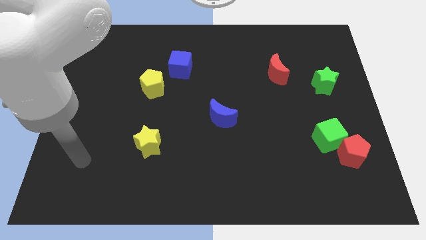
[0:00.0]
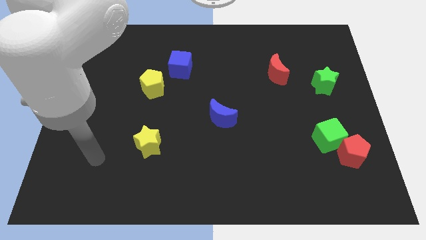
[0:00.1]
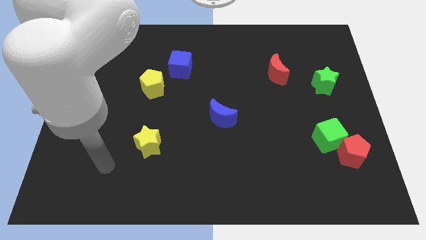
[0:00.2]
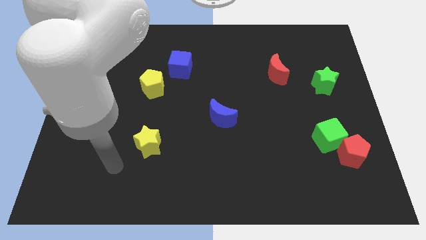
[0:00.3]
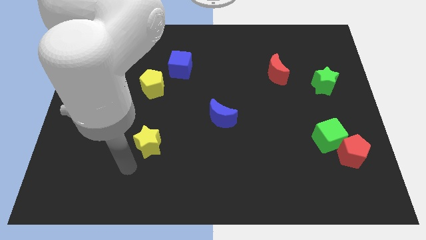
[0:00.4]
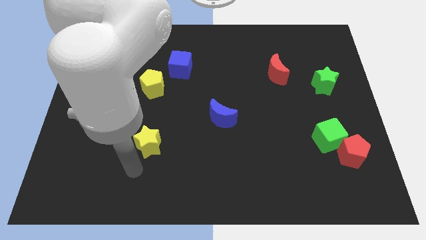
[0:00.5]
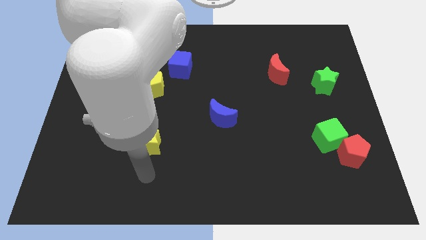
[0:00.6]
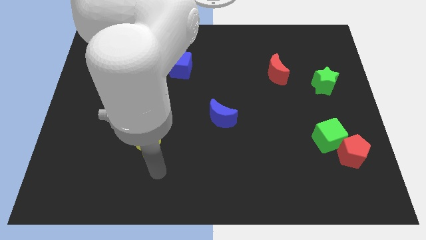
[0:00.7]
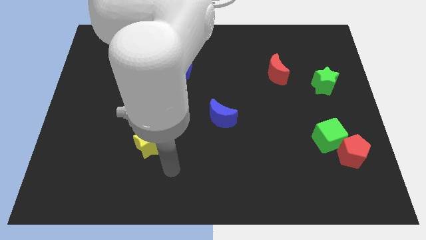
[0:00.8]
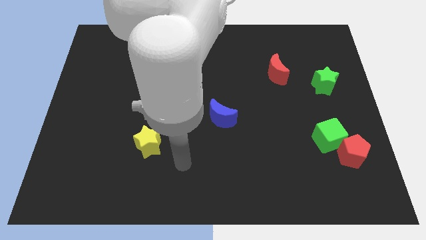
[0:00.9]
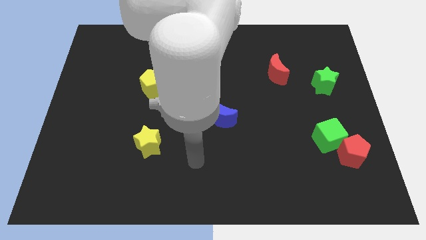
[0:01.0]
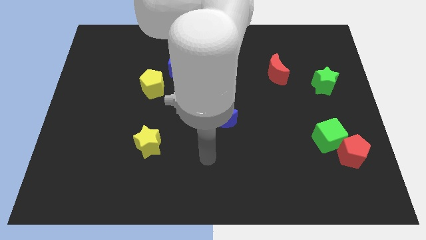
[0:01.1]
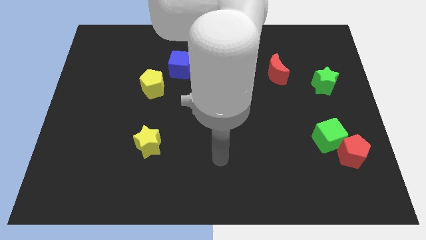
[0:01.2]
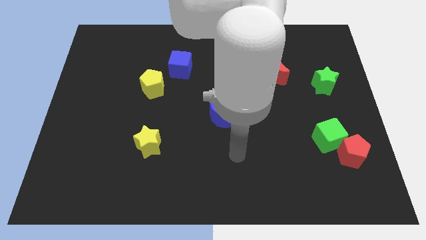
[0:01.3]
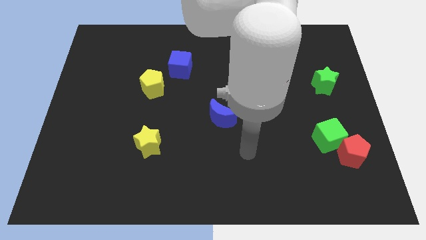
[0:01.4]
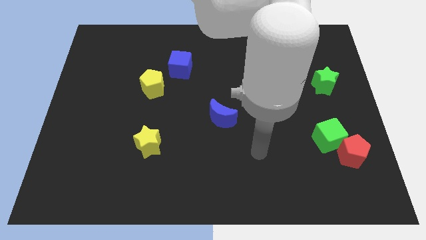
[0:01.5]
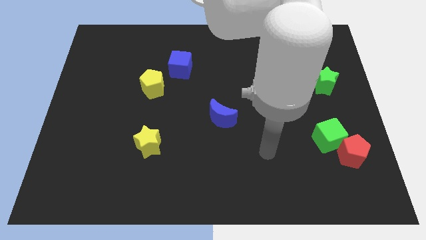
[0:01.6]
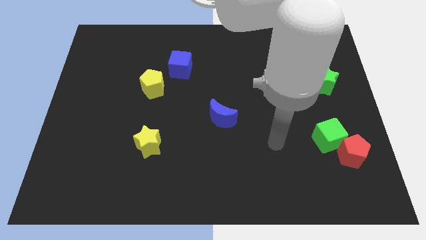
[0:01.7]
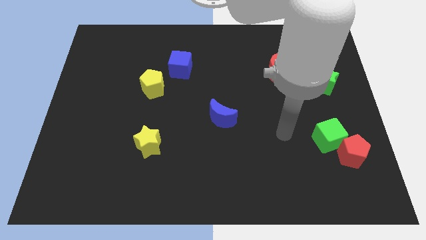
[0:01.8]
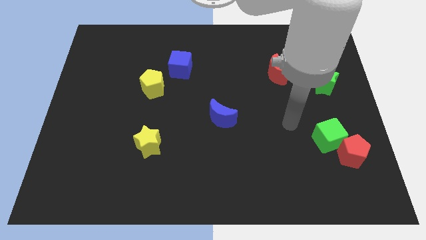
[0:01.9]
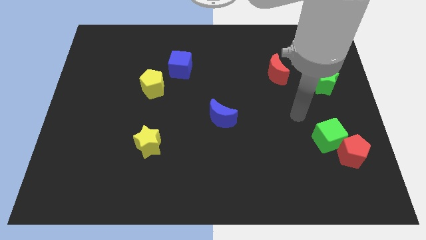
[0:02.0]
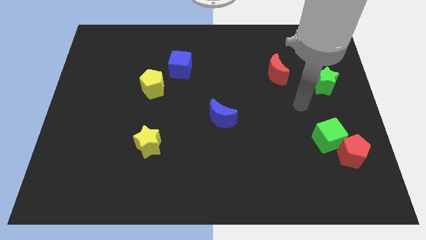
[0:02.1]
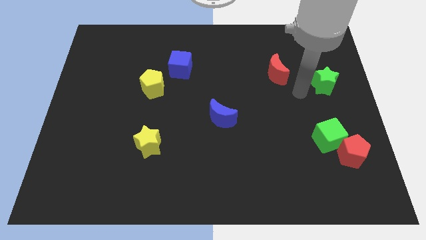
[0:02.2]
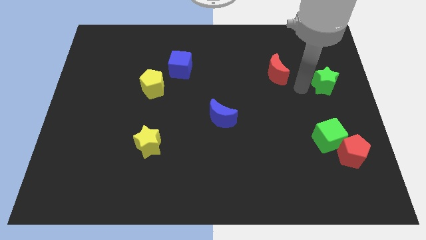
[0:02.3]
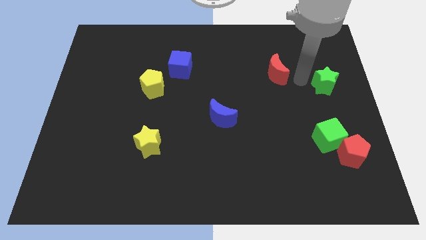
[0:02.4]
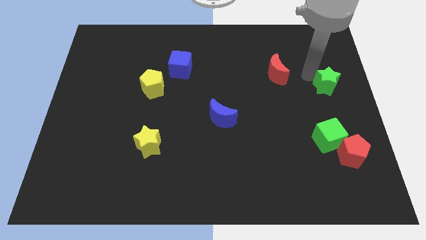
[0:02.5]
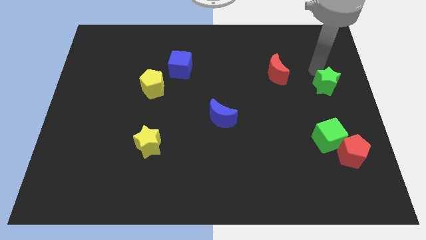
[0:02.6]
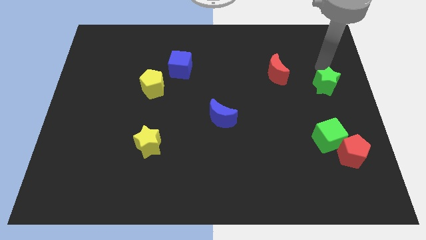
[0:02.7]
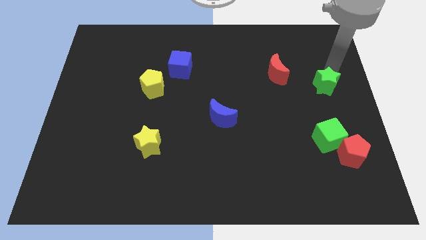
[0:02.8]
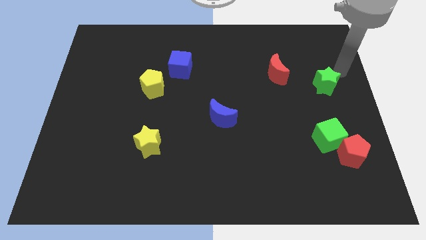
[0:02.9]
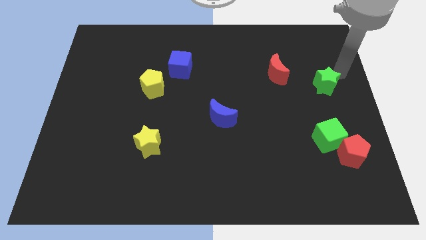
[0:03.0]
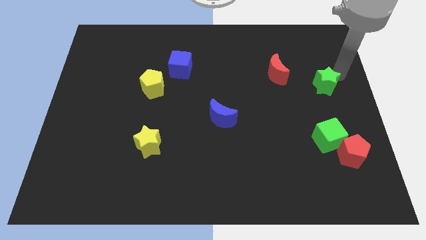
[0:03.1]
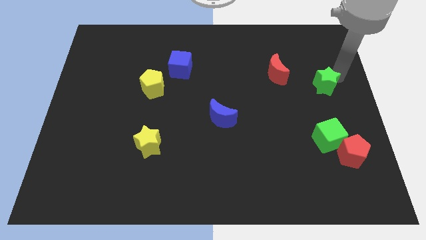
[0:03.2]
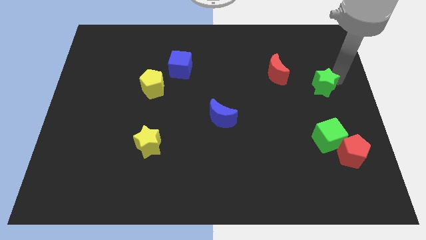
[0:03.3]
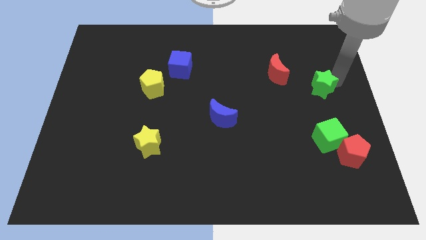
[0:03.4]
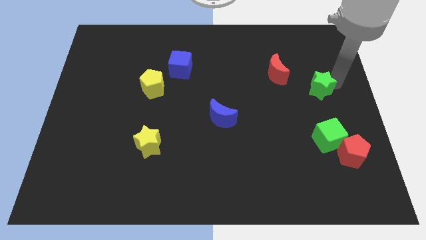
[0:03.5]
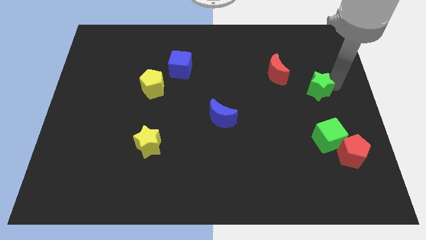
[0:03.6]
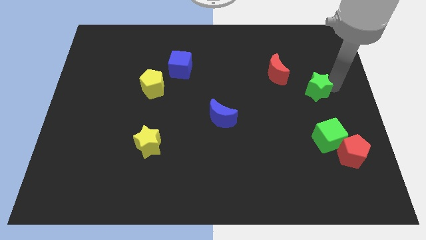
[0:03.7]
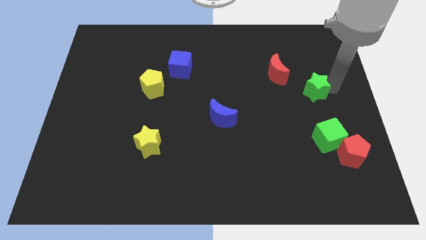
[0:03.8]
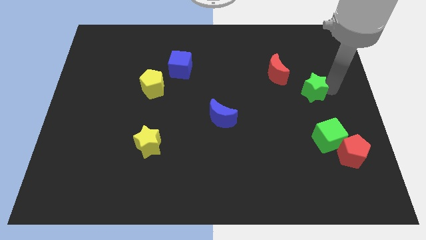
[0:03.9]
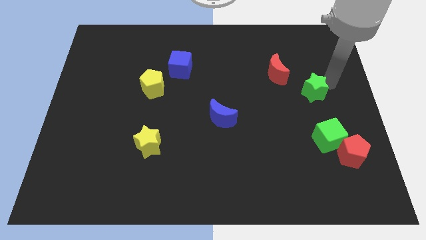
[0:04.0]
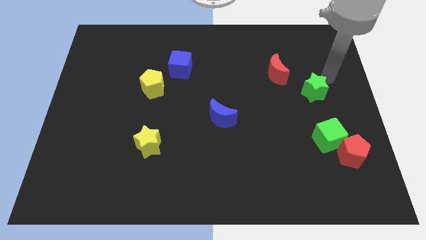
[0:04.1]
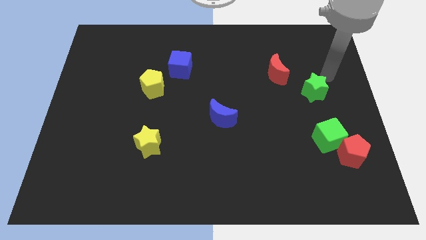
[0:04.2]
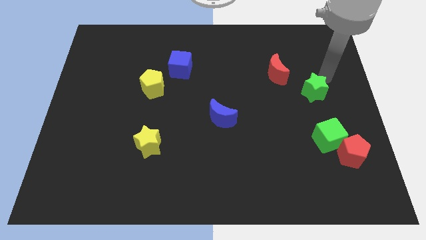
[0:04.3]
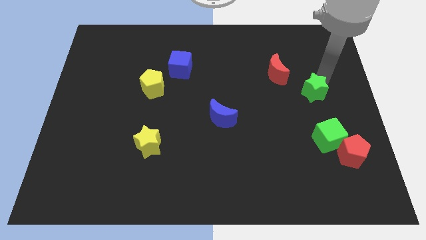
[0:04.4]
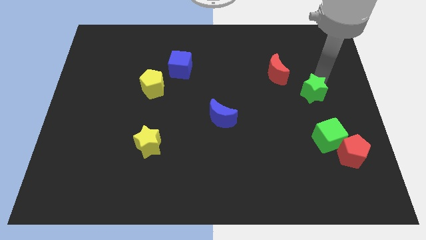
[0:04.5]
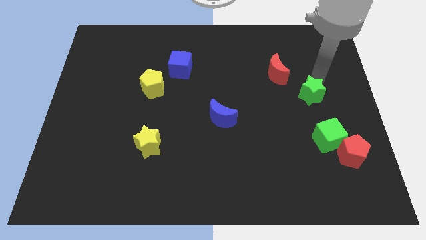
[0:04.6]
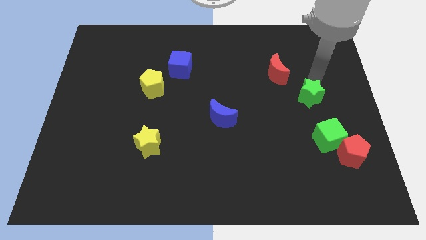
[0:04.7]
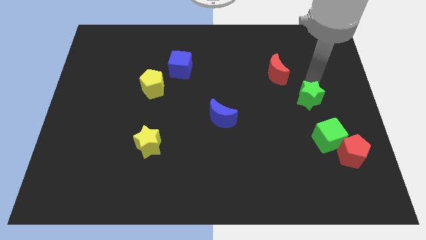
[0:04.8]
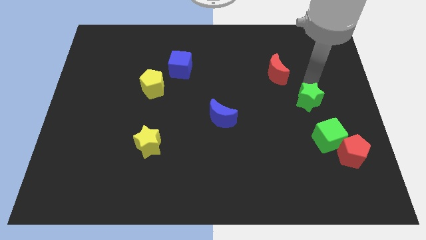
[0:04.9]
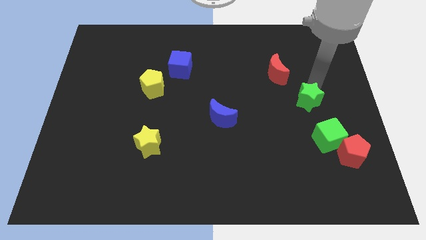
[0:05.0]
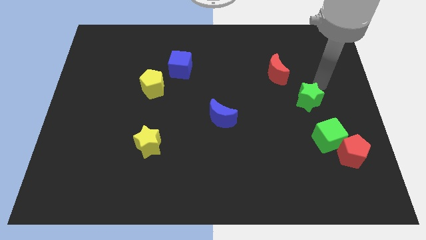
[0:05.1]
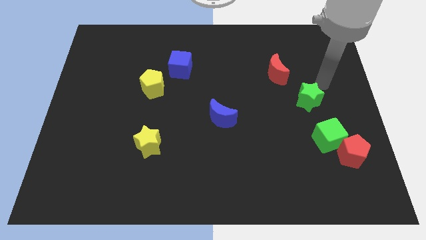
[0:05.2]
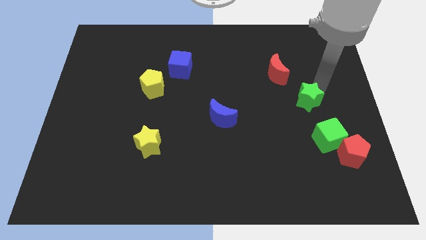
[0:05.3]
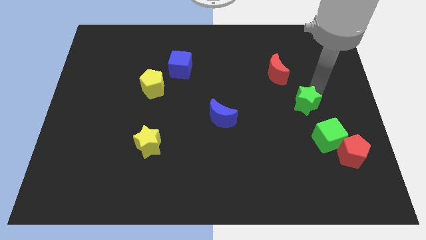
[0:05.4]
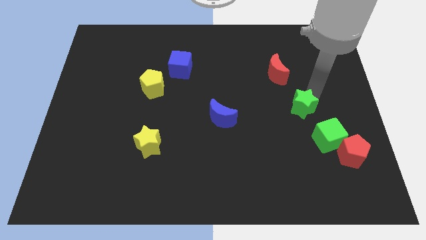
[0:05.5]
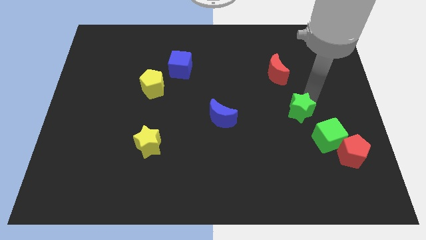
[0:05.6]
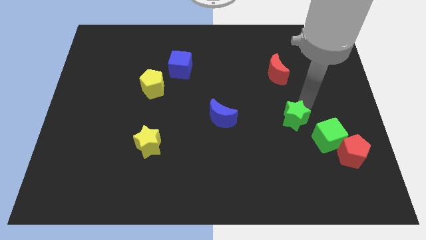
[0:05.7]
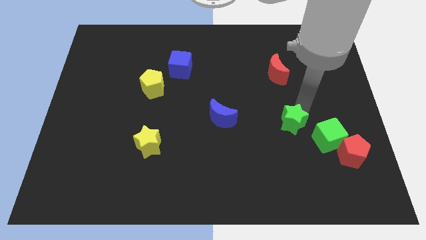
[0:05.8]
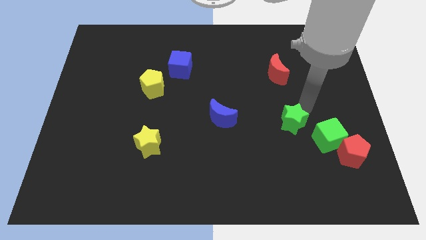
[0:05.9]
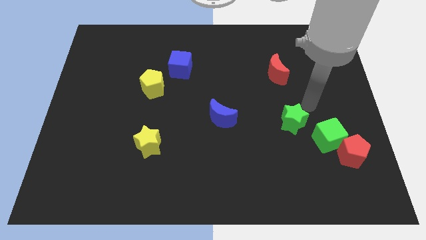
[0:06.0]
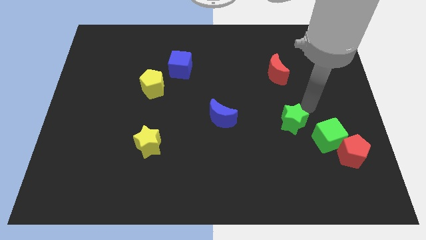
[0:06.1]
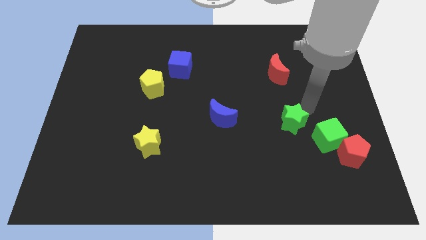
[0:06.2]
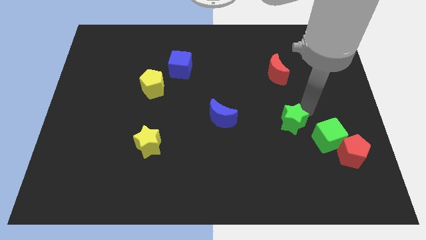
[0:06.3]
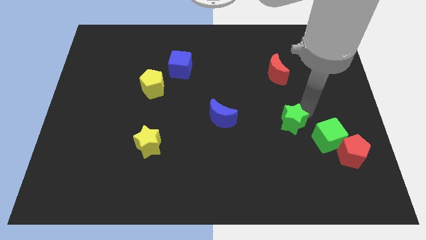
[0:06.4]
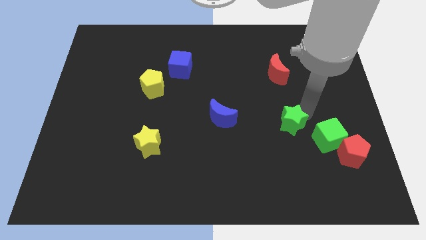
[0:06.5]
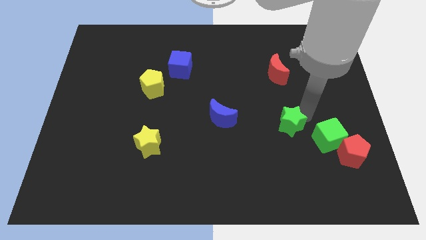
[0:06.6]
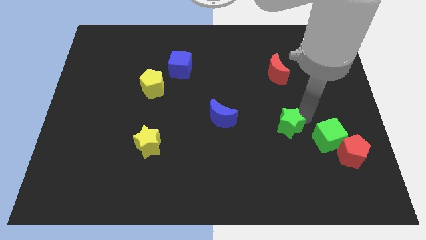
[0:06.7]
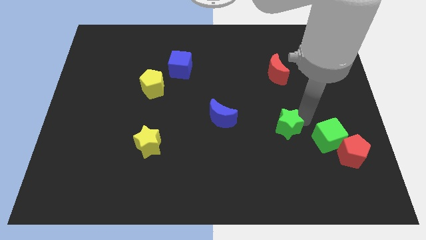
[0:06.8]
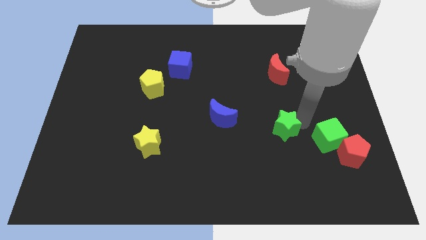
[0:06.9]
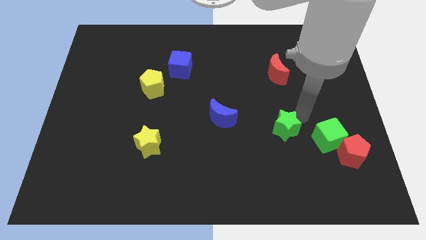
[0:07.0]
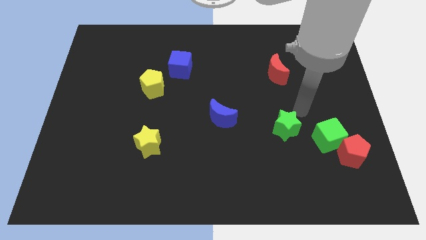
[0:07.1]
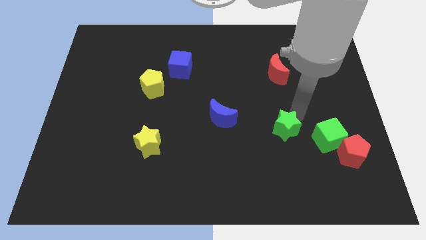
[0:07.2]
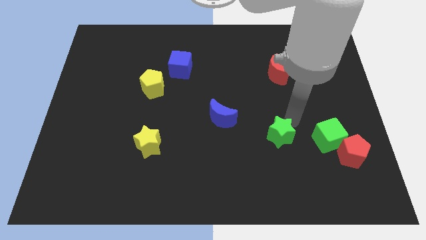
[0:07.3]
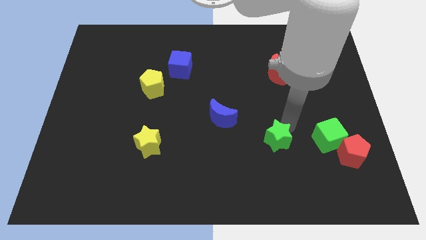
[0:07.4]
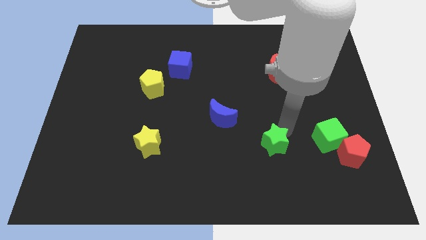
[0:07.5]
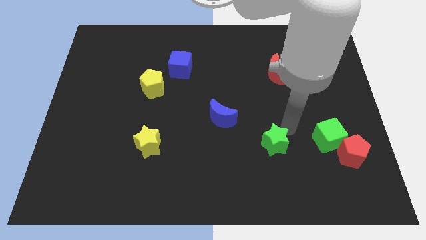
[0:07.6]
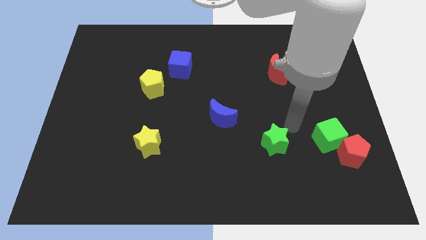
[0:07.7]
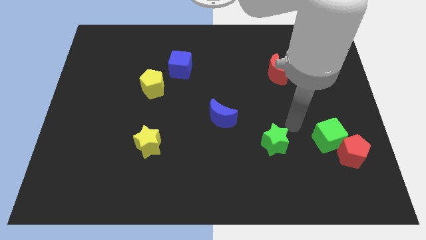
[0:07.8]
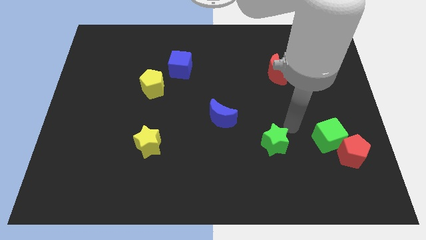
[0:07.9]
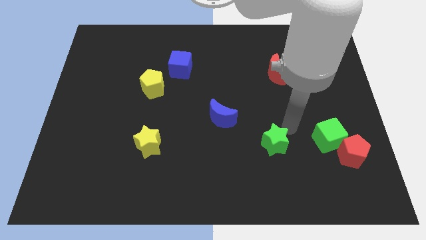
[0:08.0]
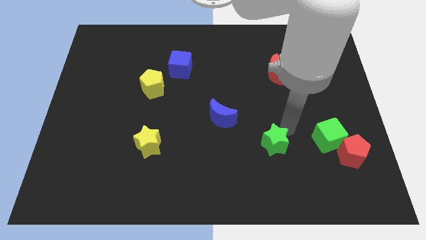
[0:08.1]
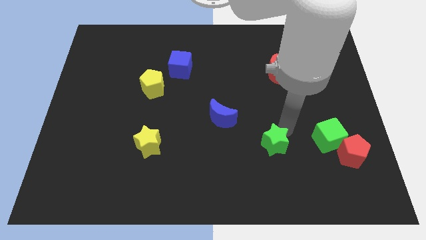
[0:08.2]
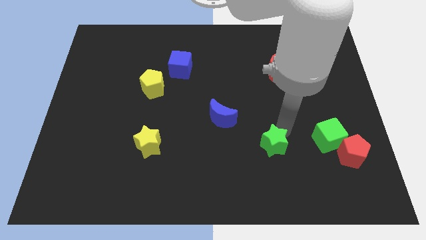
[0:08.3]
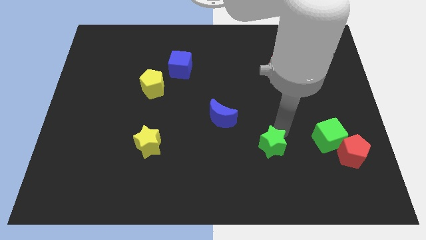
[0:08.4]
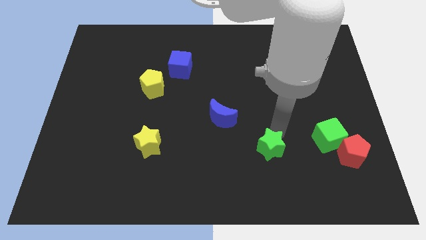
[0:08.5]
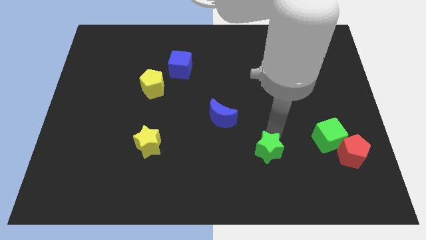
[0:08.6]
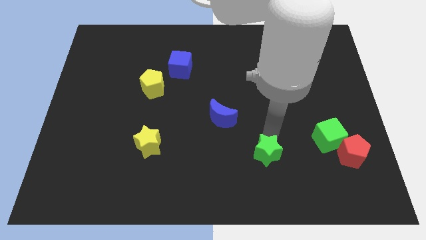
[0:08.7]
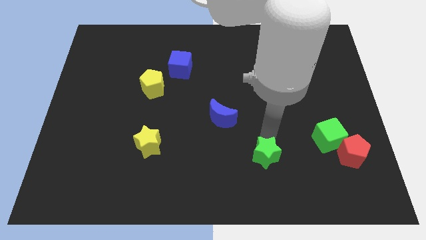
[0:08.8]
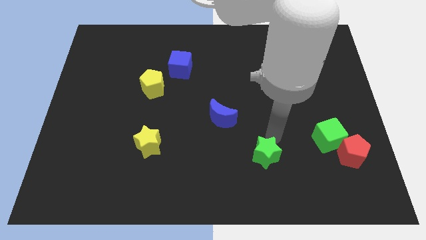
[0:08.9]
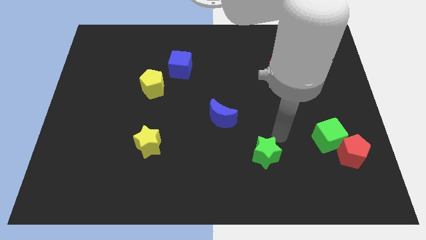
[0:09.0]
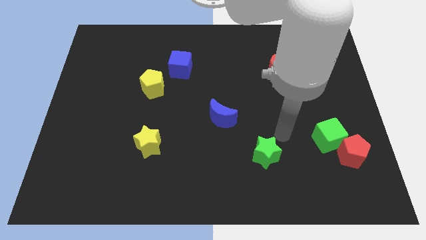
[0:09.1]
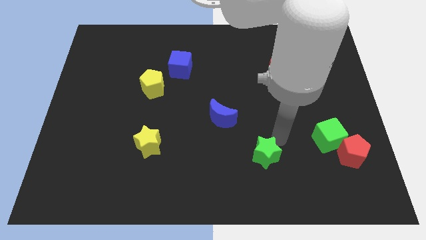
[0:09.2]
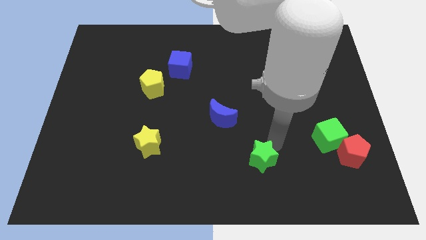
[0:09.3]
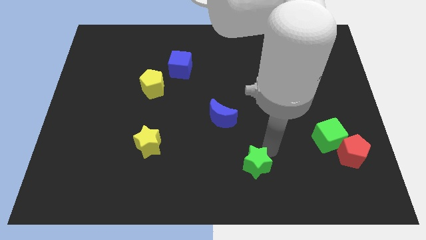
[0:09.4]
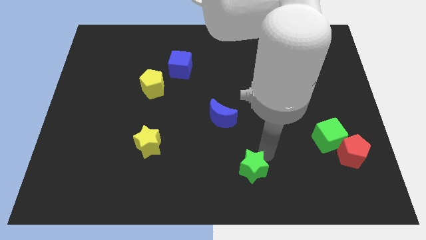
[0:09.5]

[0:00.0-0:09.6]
slide the green star to the bottom
